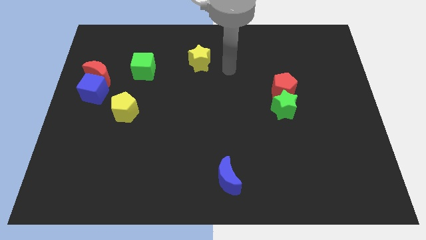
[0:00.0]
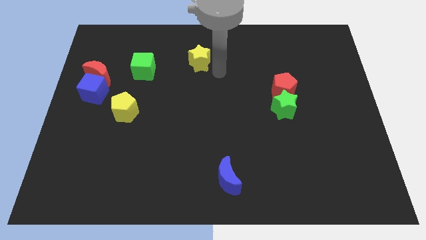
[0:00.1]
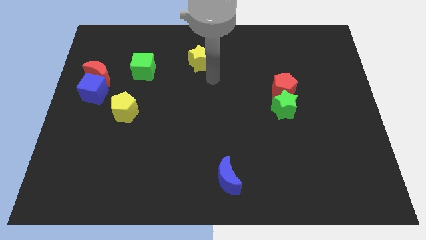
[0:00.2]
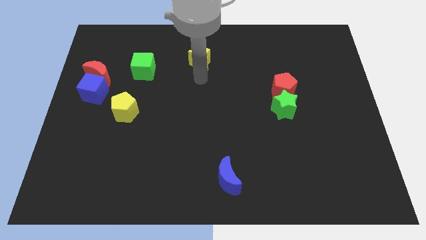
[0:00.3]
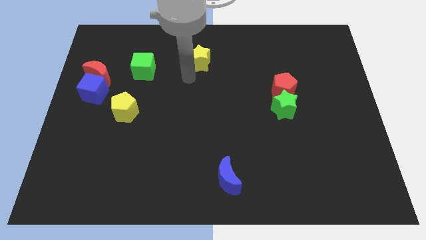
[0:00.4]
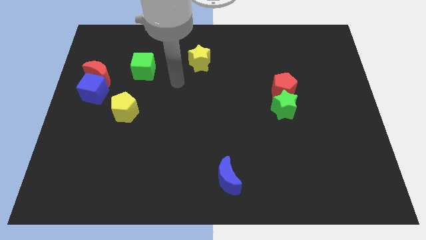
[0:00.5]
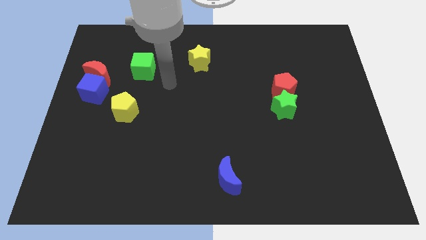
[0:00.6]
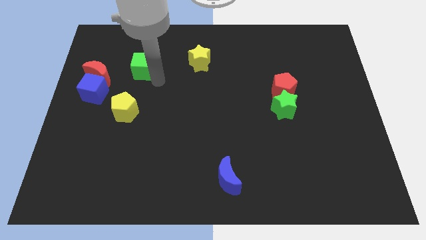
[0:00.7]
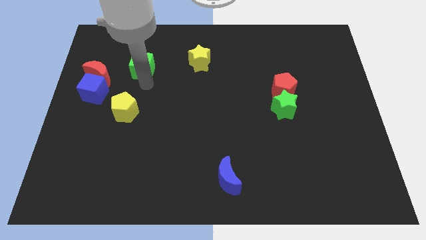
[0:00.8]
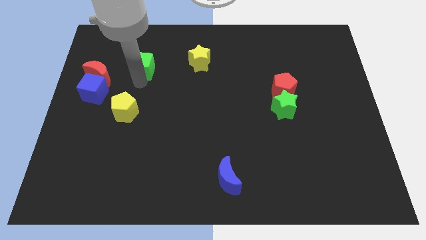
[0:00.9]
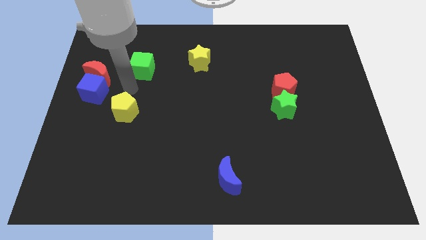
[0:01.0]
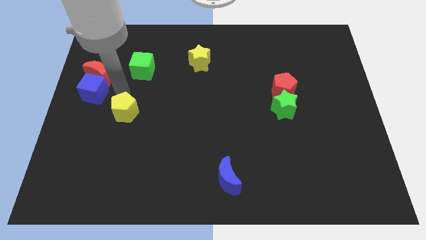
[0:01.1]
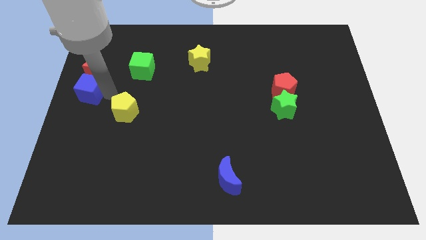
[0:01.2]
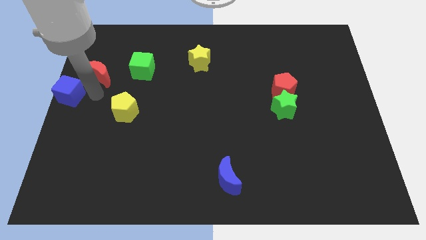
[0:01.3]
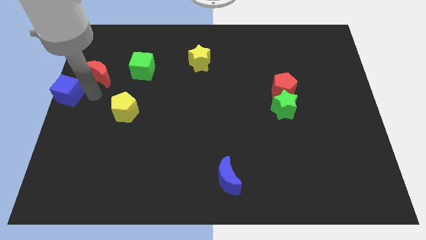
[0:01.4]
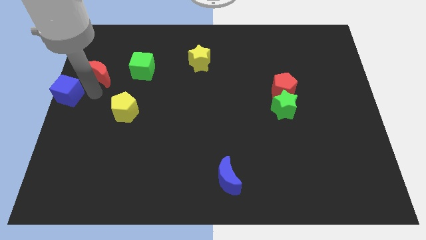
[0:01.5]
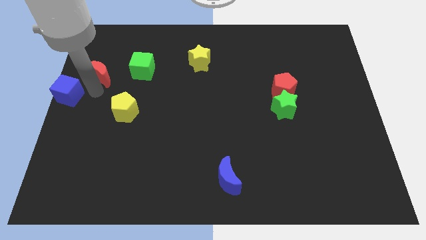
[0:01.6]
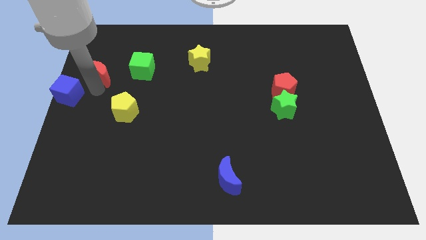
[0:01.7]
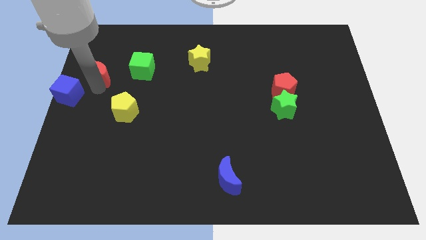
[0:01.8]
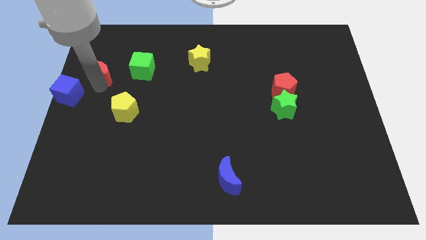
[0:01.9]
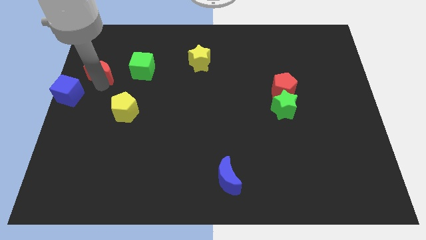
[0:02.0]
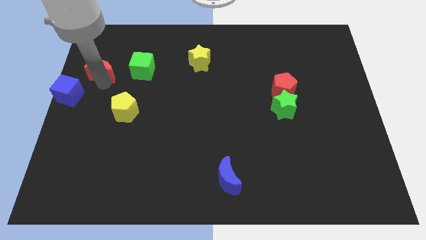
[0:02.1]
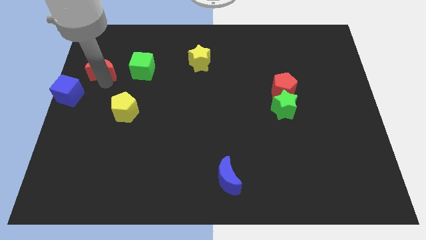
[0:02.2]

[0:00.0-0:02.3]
move the red moon away from the blue cube

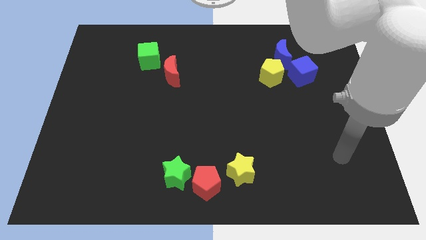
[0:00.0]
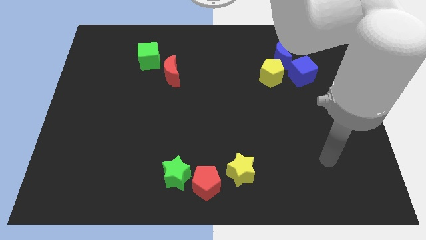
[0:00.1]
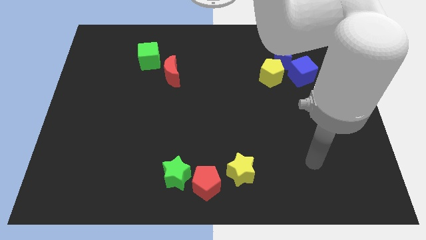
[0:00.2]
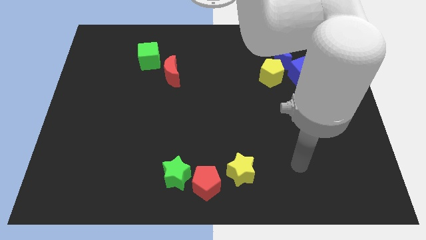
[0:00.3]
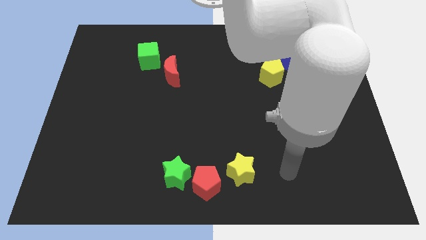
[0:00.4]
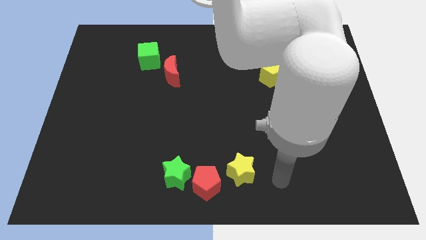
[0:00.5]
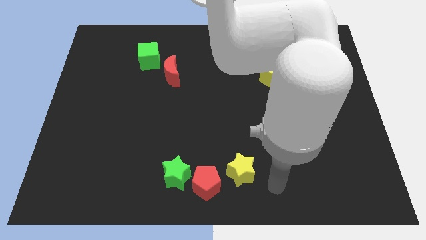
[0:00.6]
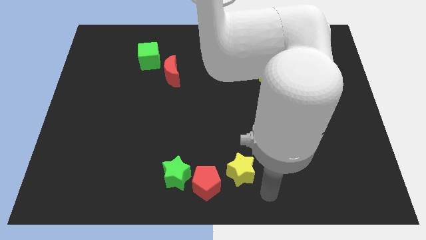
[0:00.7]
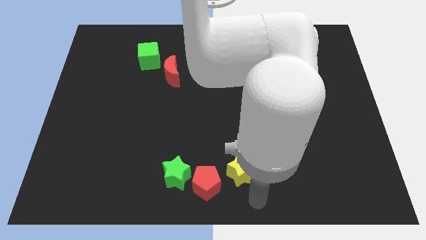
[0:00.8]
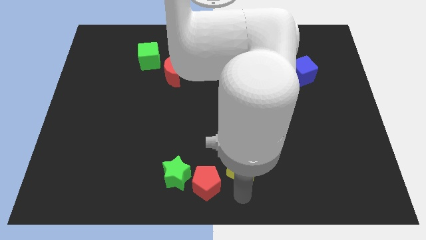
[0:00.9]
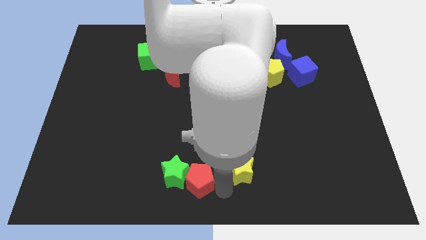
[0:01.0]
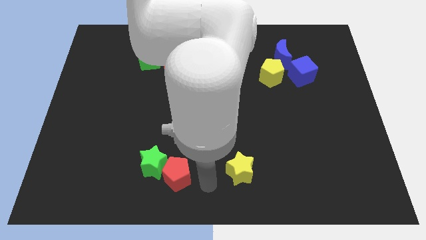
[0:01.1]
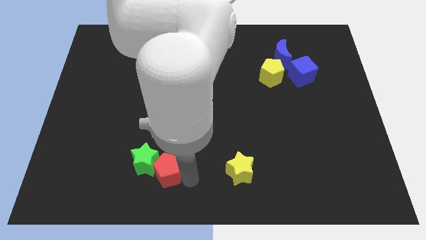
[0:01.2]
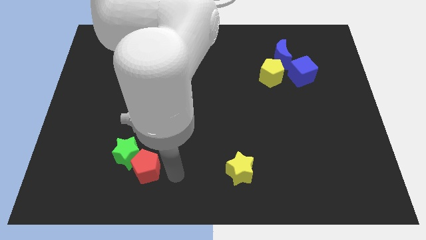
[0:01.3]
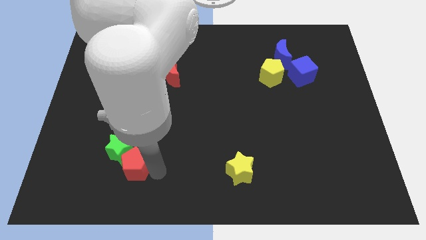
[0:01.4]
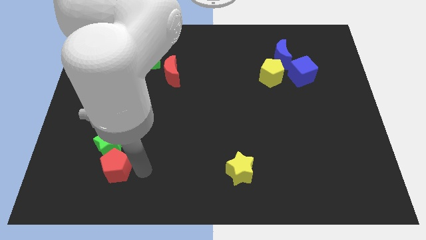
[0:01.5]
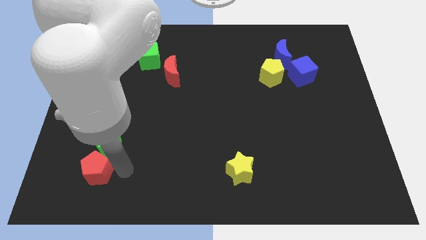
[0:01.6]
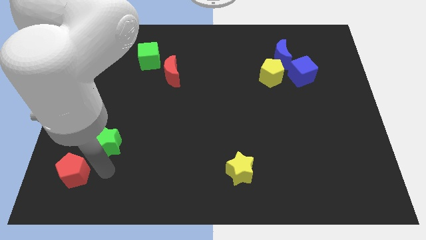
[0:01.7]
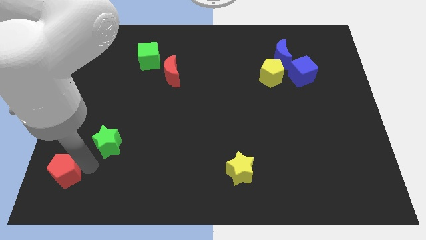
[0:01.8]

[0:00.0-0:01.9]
separate the green star from the red pentagon

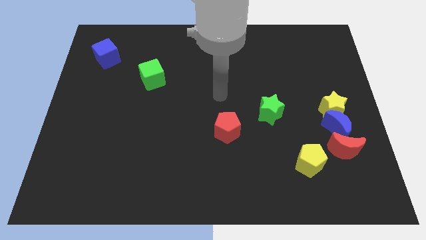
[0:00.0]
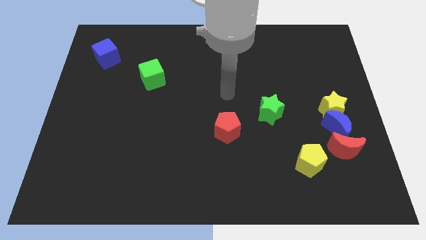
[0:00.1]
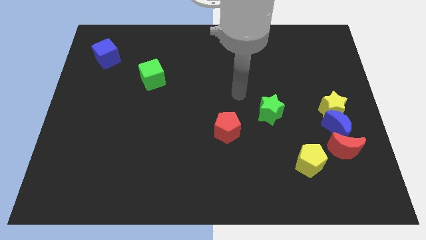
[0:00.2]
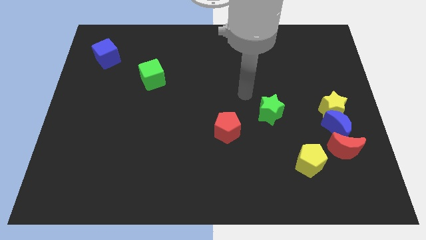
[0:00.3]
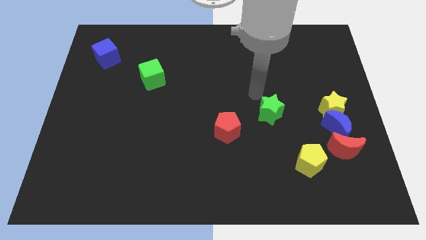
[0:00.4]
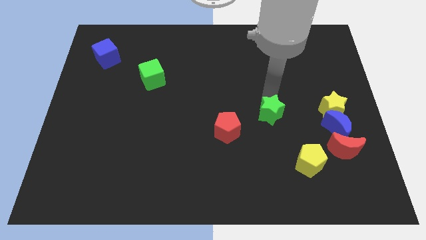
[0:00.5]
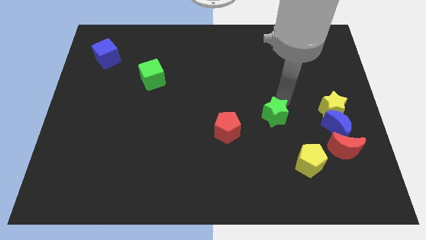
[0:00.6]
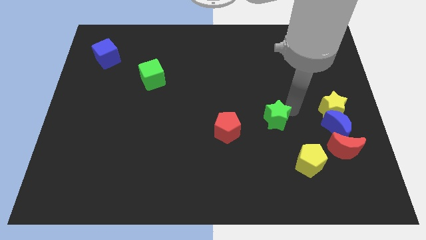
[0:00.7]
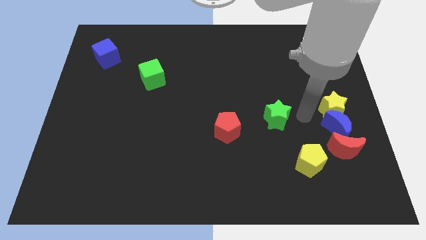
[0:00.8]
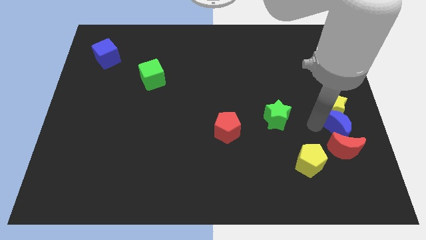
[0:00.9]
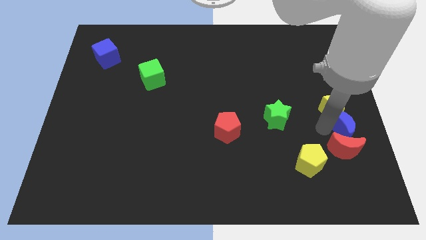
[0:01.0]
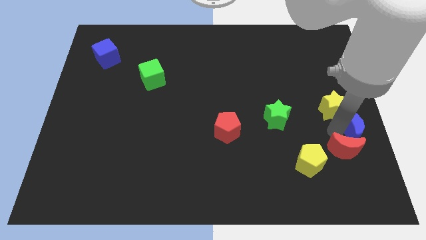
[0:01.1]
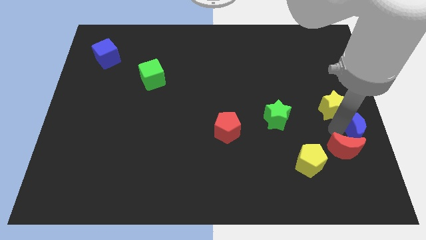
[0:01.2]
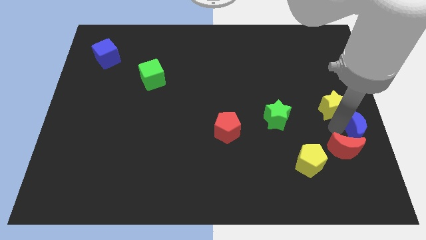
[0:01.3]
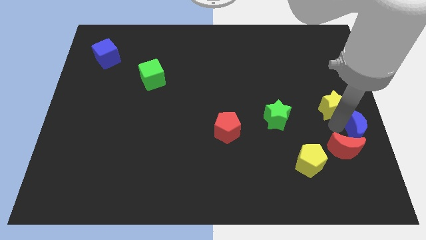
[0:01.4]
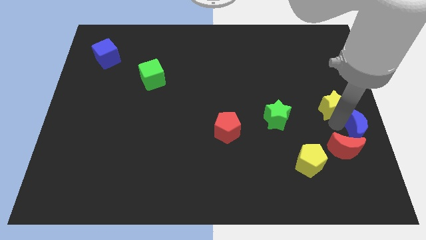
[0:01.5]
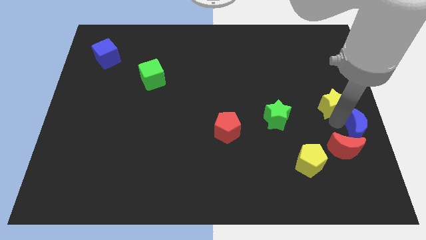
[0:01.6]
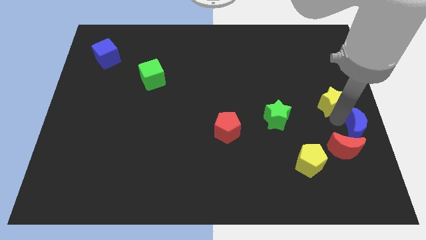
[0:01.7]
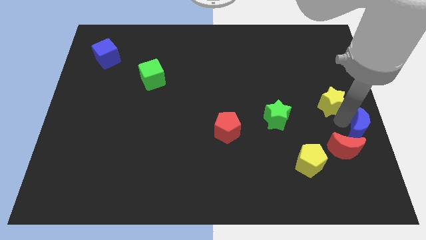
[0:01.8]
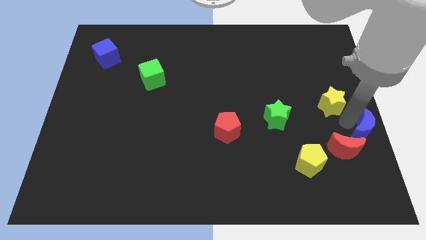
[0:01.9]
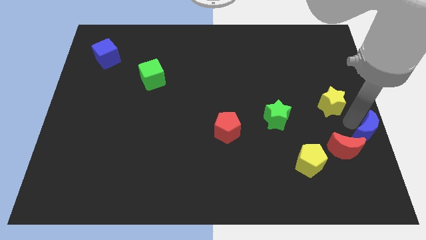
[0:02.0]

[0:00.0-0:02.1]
pull the yellow star apart from the blue moon

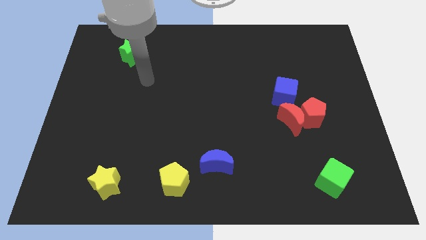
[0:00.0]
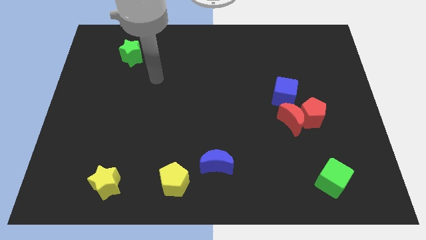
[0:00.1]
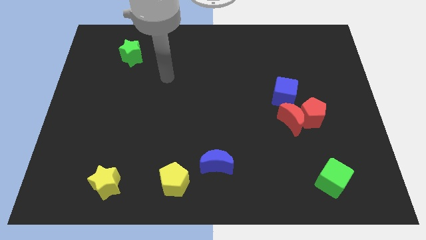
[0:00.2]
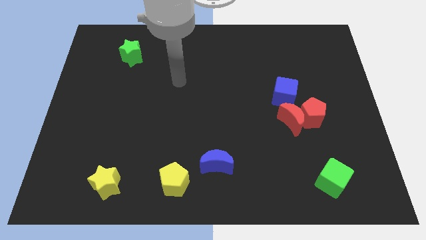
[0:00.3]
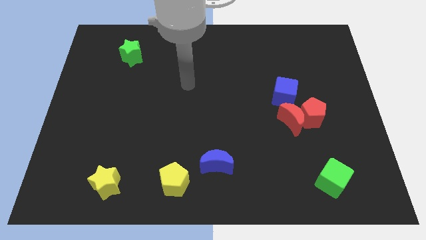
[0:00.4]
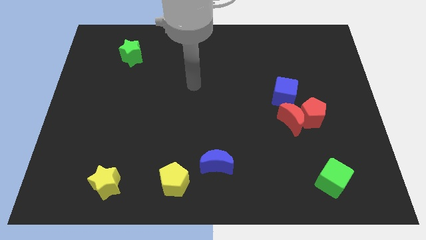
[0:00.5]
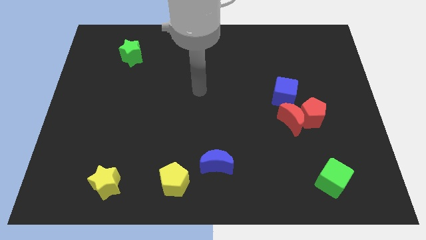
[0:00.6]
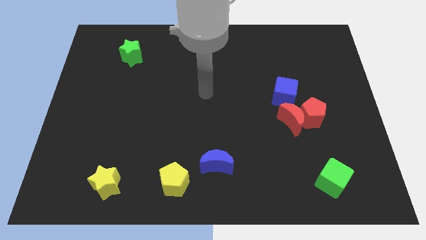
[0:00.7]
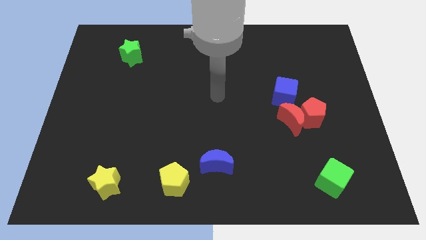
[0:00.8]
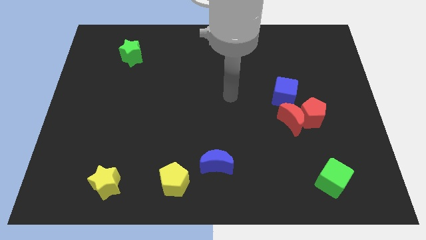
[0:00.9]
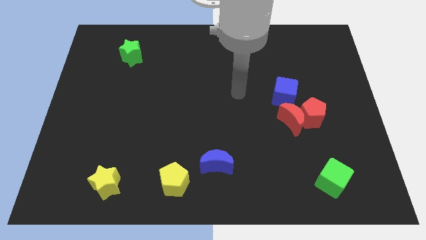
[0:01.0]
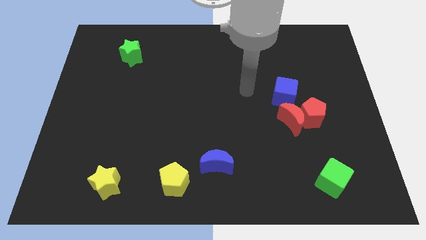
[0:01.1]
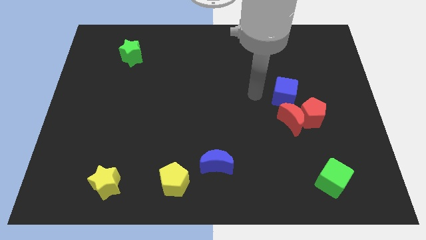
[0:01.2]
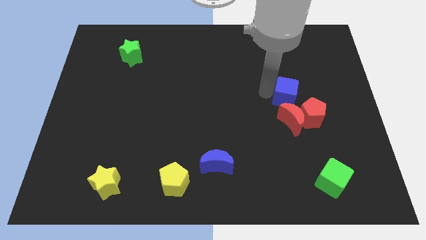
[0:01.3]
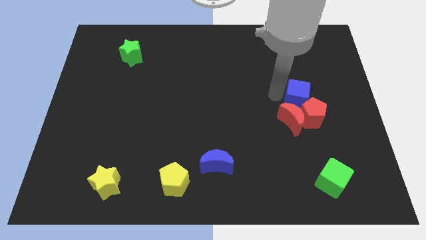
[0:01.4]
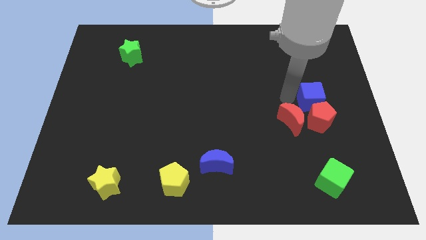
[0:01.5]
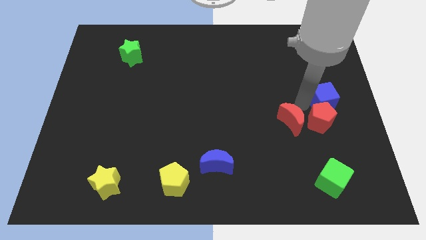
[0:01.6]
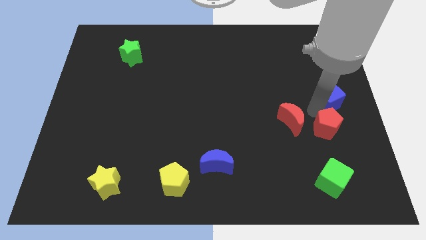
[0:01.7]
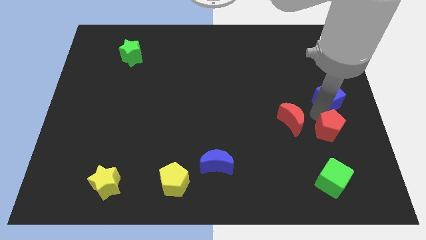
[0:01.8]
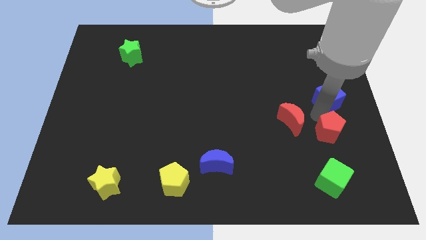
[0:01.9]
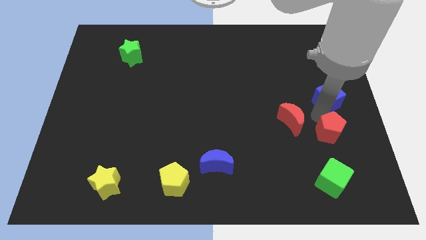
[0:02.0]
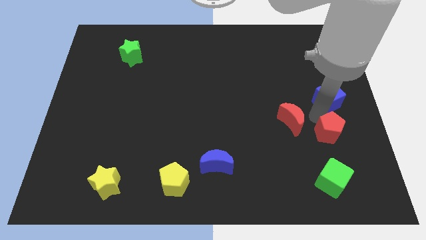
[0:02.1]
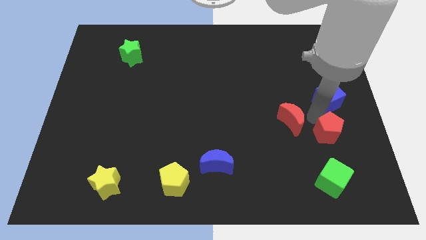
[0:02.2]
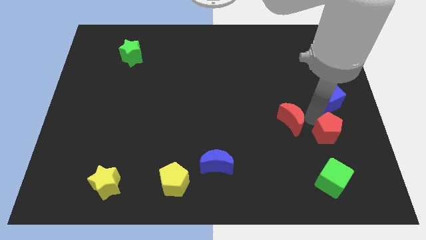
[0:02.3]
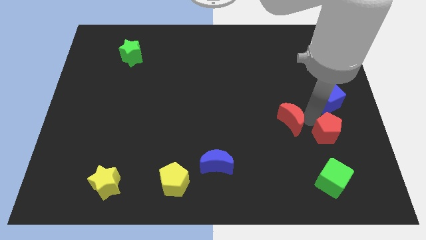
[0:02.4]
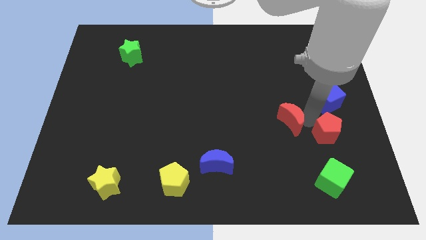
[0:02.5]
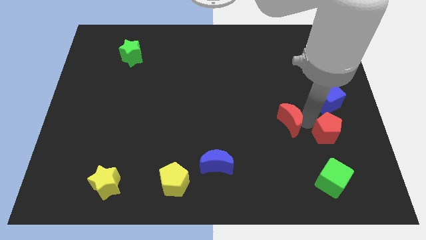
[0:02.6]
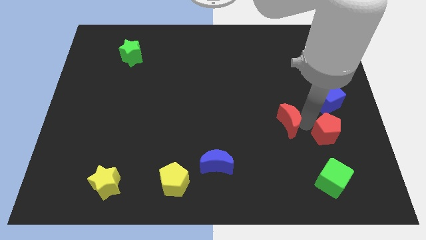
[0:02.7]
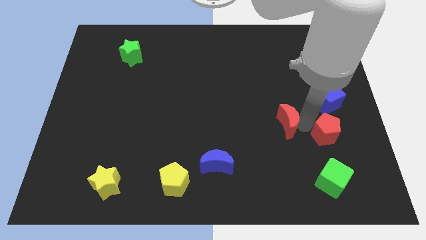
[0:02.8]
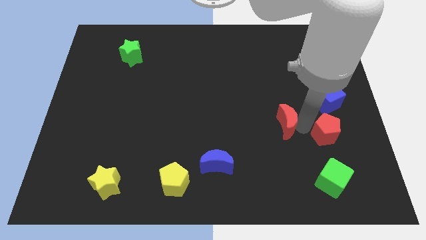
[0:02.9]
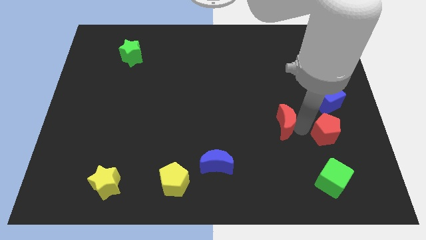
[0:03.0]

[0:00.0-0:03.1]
separate the red moon from the red pentagon and blue cube
